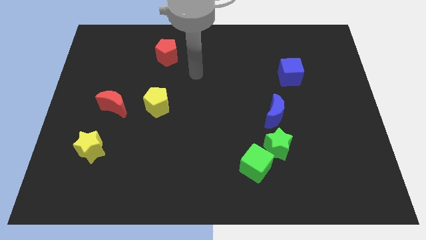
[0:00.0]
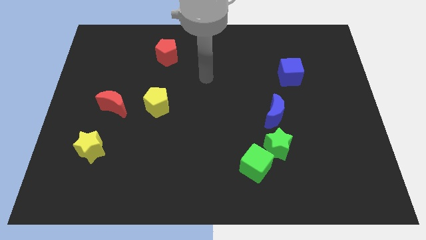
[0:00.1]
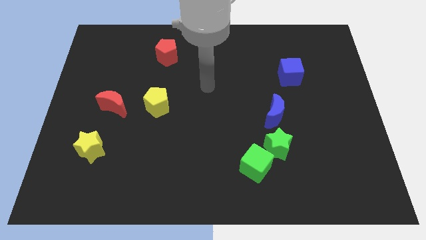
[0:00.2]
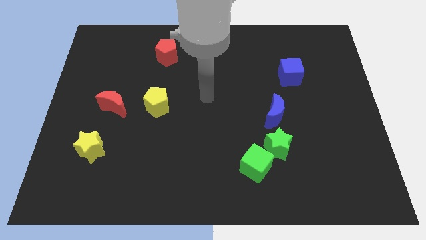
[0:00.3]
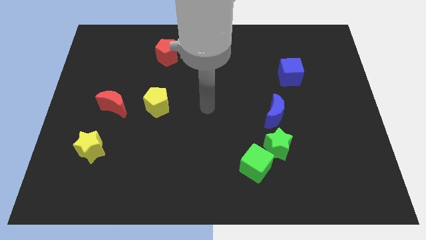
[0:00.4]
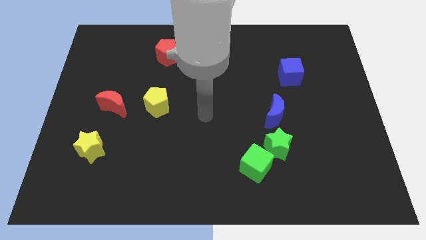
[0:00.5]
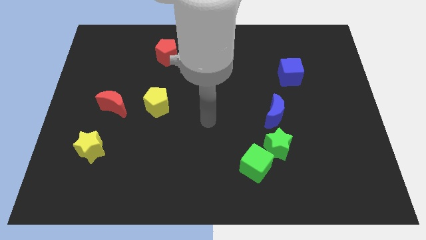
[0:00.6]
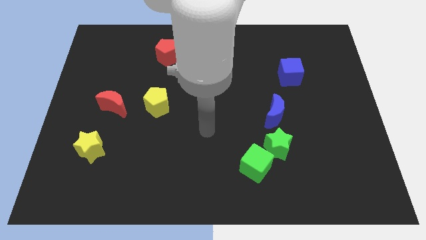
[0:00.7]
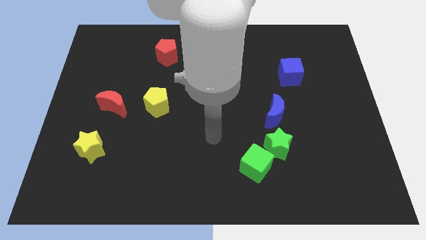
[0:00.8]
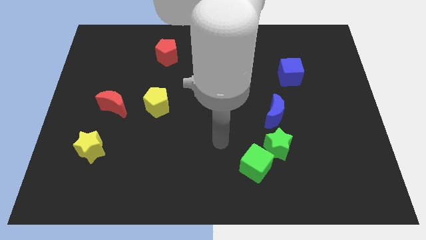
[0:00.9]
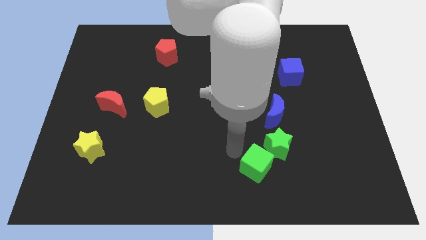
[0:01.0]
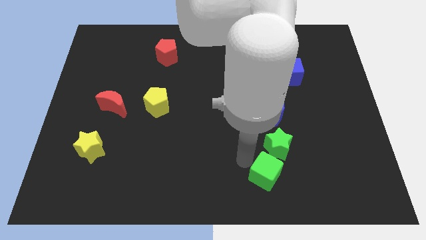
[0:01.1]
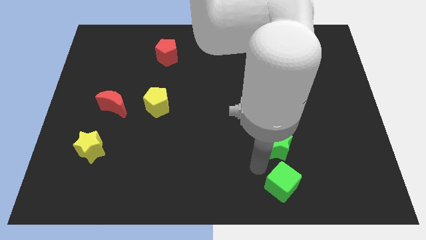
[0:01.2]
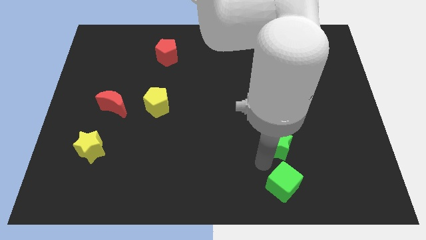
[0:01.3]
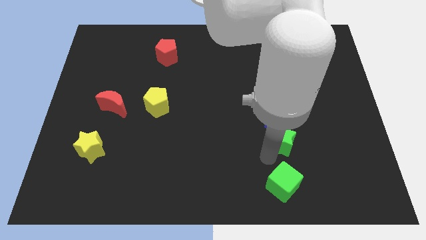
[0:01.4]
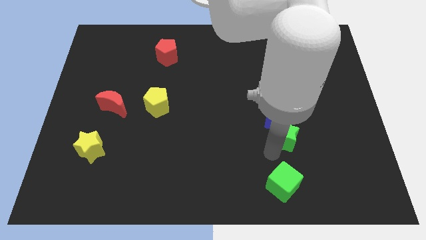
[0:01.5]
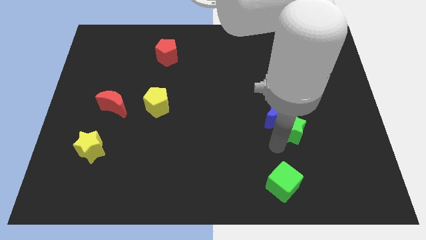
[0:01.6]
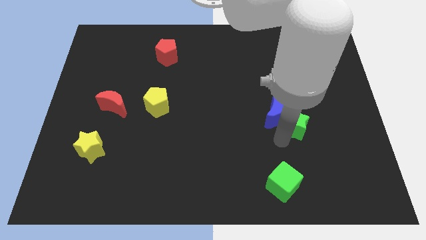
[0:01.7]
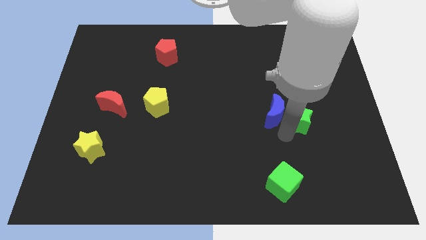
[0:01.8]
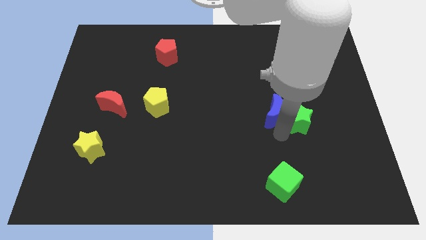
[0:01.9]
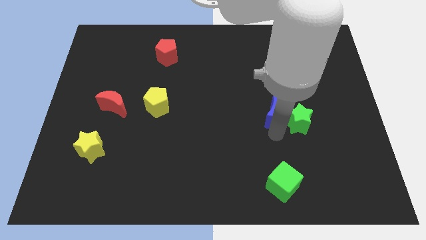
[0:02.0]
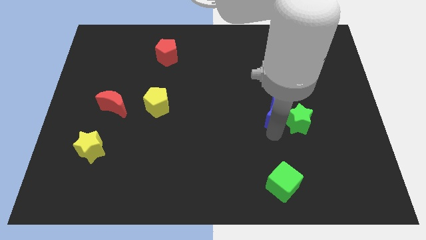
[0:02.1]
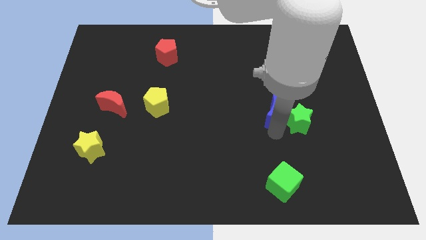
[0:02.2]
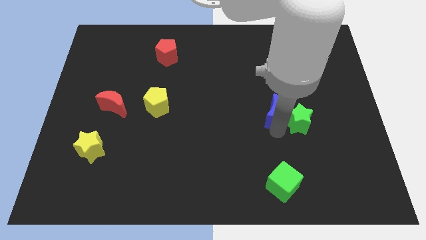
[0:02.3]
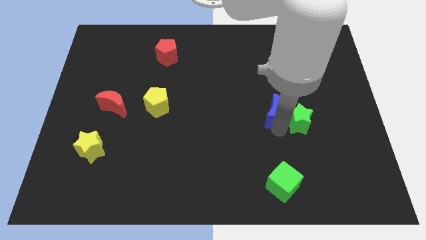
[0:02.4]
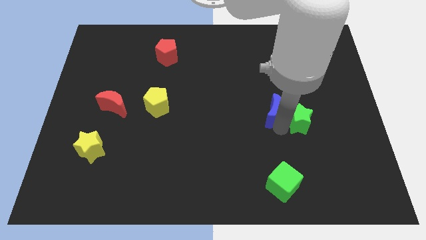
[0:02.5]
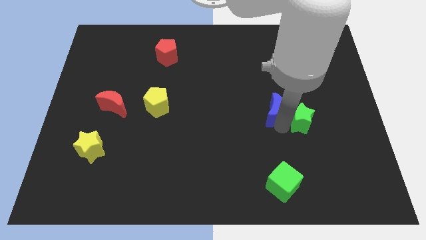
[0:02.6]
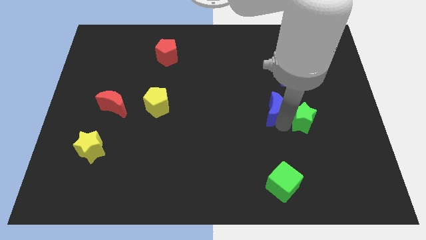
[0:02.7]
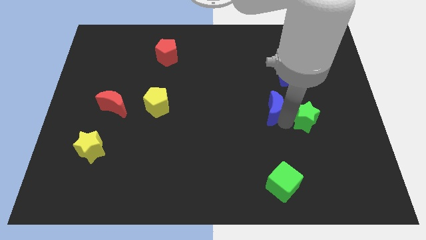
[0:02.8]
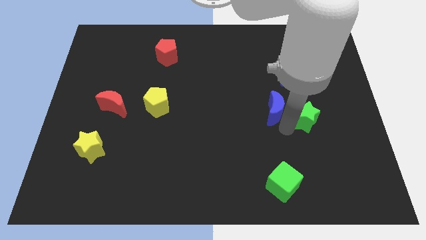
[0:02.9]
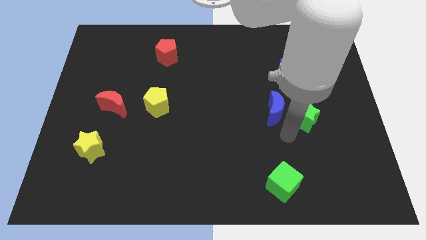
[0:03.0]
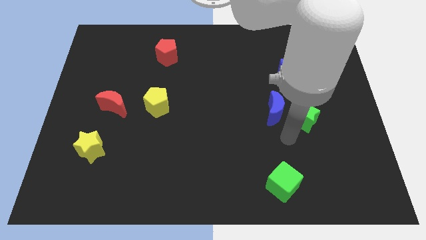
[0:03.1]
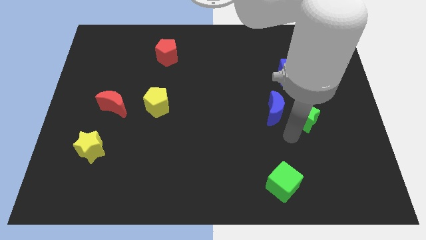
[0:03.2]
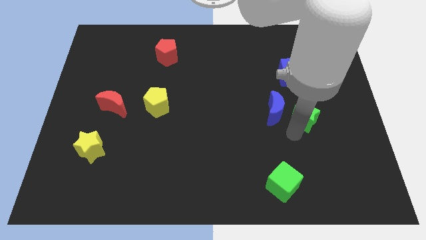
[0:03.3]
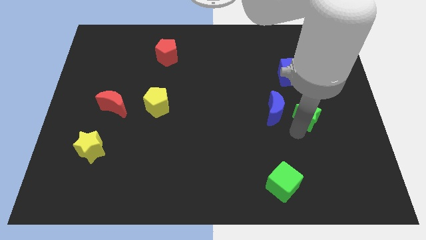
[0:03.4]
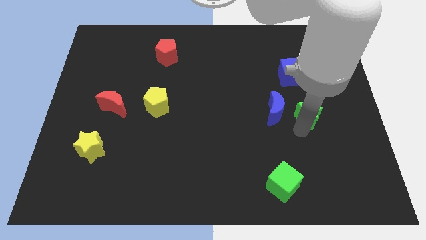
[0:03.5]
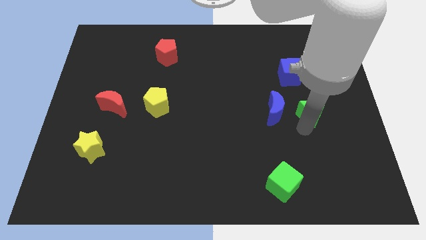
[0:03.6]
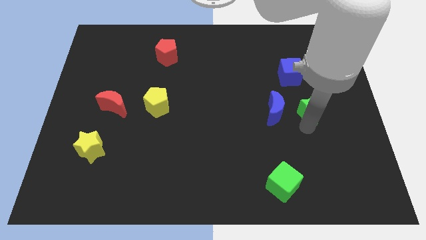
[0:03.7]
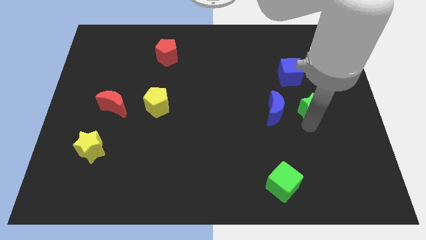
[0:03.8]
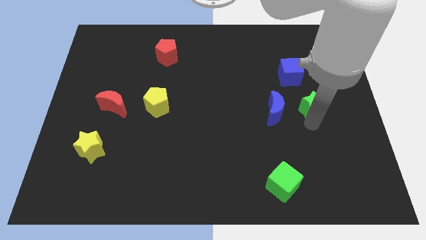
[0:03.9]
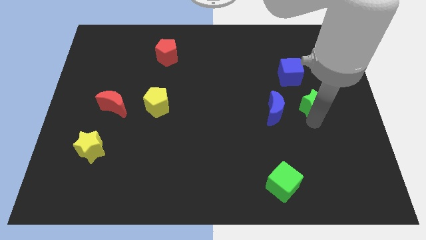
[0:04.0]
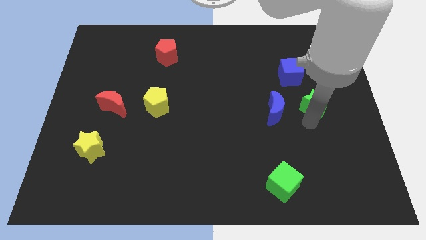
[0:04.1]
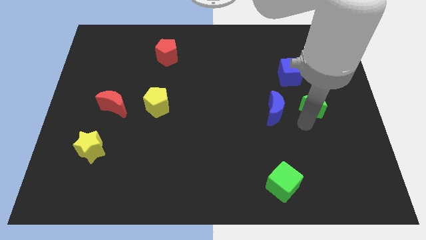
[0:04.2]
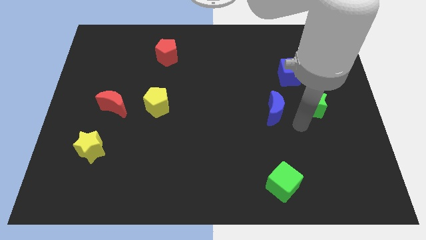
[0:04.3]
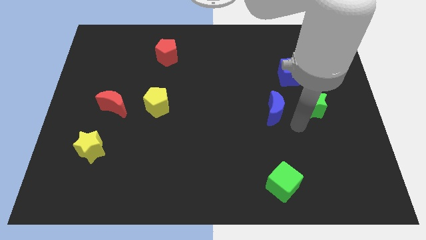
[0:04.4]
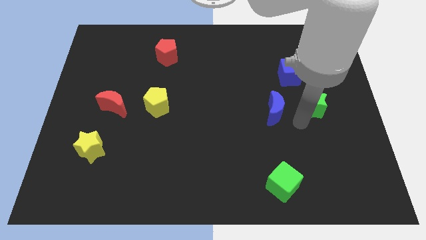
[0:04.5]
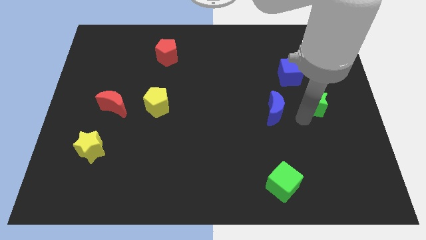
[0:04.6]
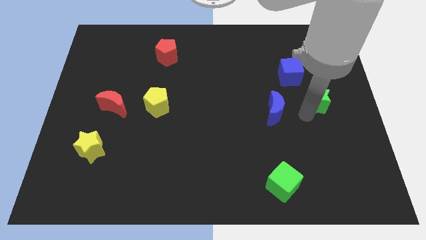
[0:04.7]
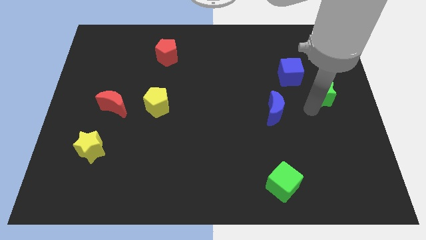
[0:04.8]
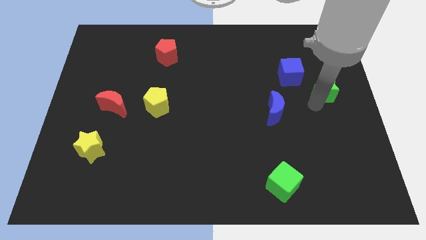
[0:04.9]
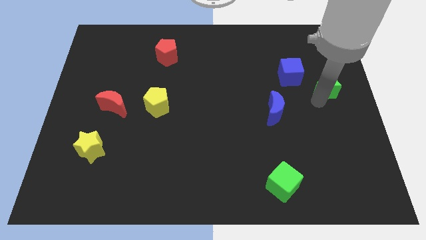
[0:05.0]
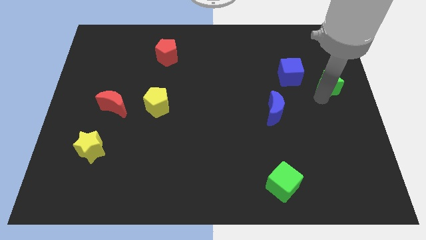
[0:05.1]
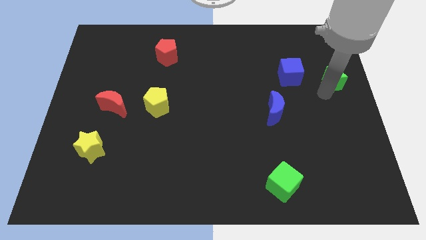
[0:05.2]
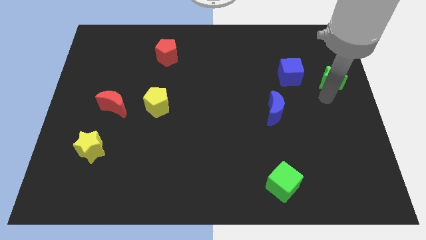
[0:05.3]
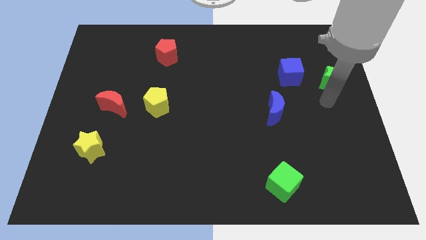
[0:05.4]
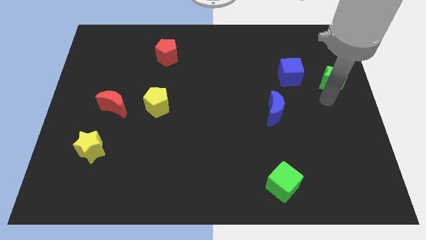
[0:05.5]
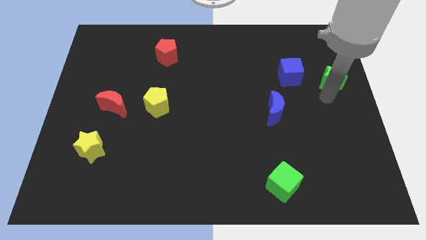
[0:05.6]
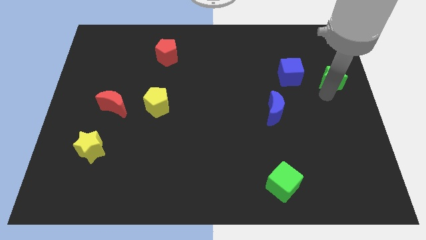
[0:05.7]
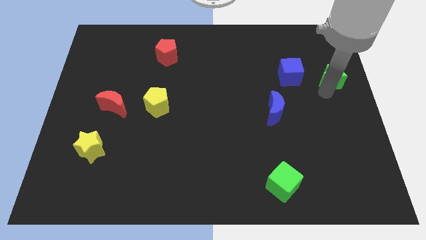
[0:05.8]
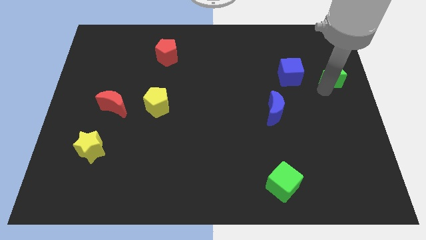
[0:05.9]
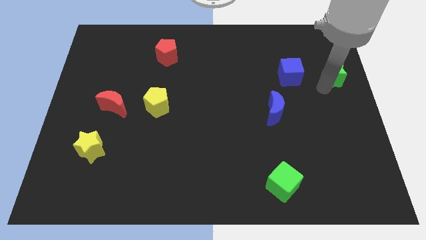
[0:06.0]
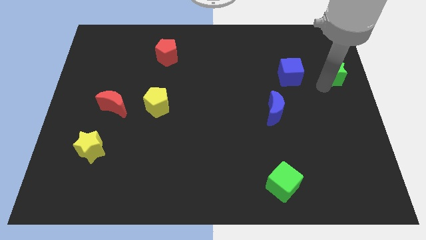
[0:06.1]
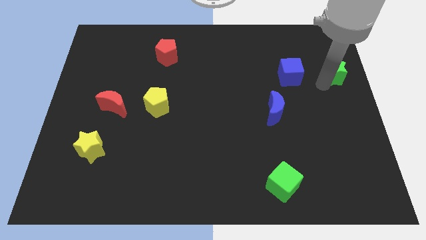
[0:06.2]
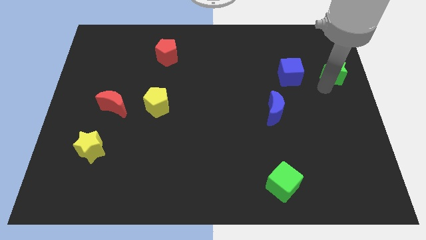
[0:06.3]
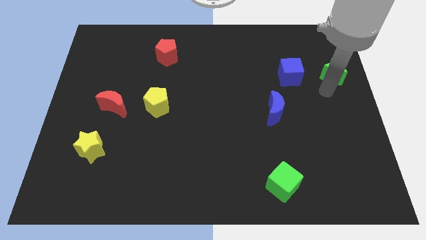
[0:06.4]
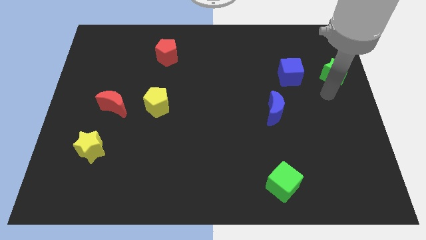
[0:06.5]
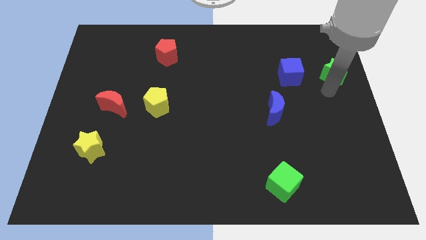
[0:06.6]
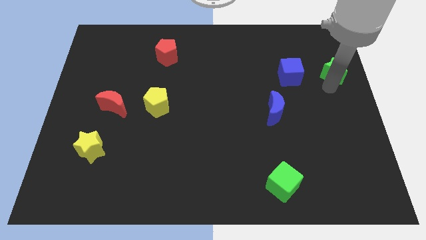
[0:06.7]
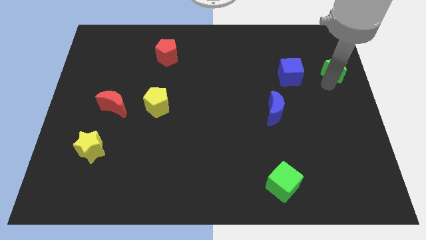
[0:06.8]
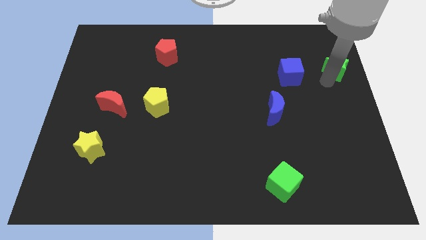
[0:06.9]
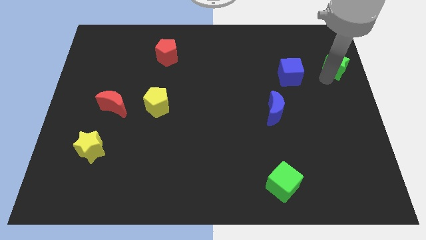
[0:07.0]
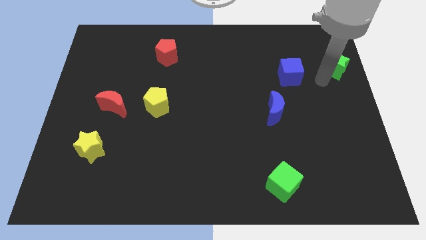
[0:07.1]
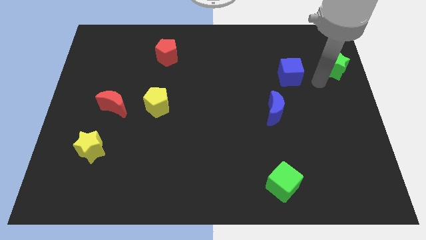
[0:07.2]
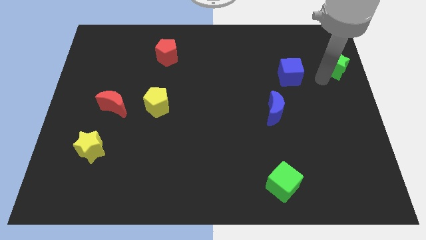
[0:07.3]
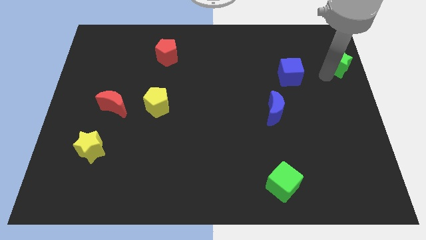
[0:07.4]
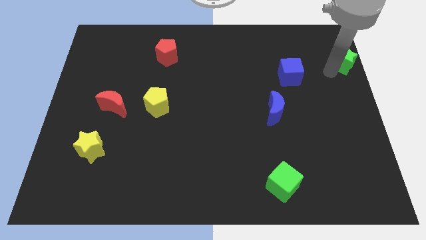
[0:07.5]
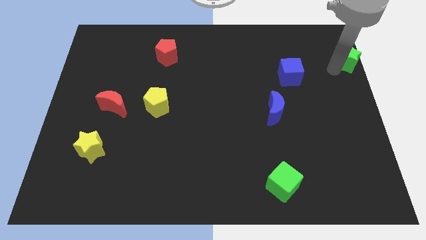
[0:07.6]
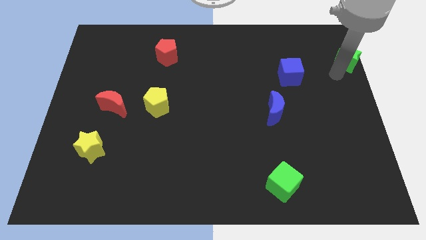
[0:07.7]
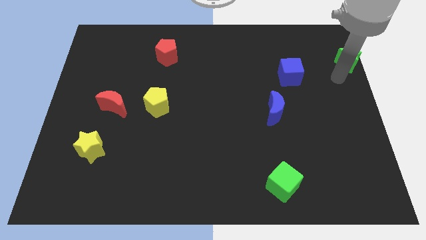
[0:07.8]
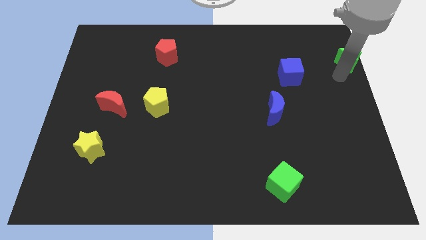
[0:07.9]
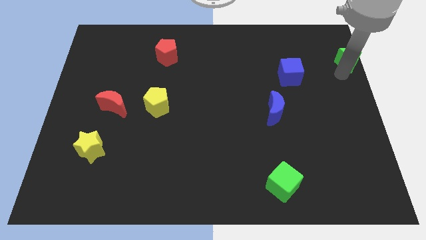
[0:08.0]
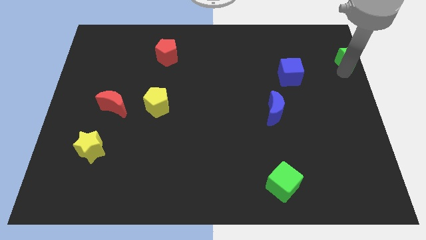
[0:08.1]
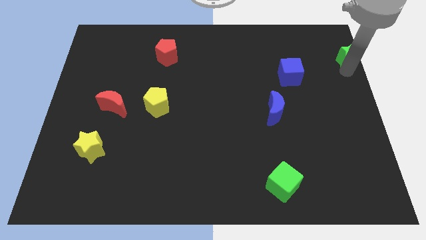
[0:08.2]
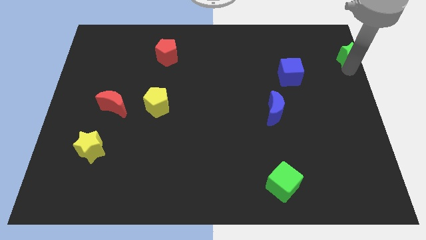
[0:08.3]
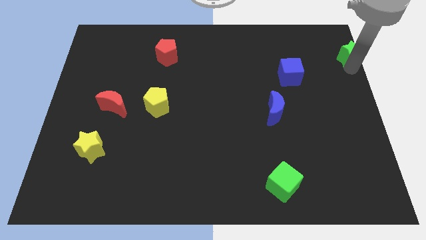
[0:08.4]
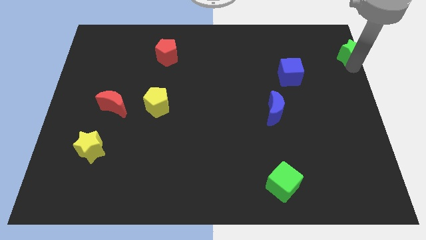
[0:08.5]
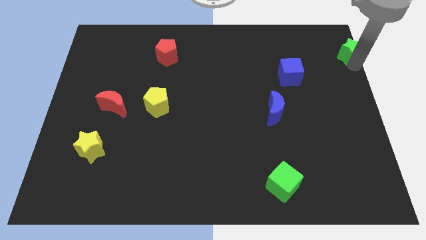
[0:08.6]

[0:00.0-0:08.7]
move the green star to the top right of the board
